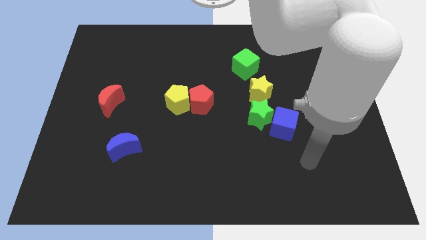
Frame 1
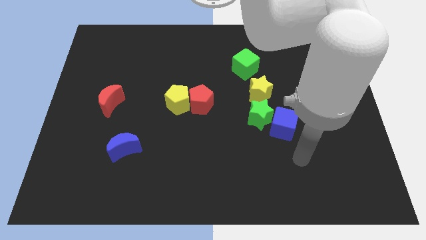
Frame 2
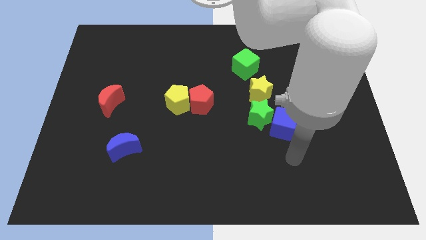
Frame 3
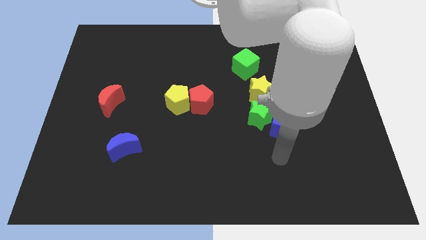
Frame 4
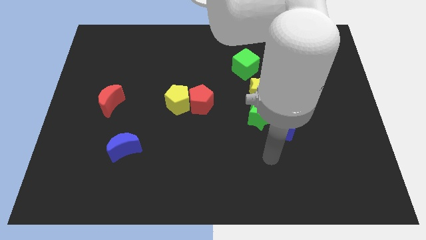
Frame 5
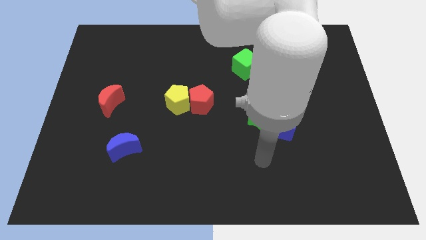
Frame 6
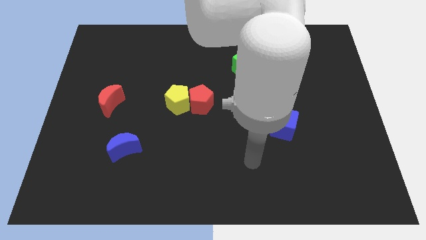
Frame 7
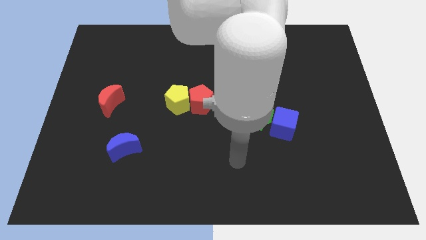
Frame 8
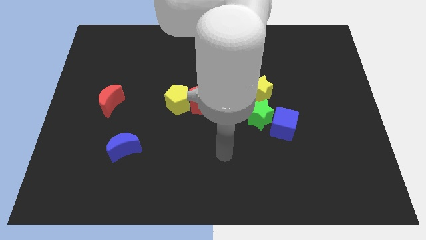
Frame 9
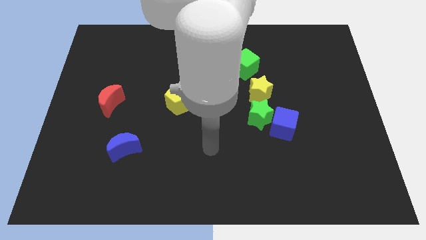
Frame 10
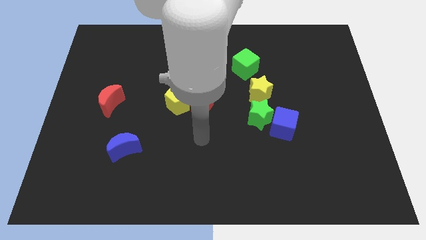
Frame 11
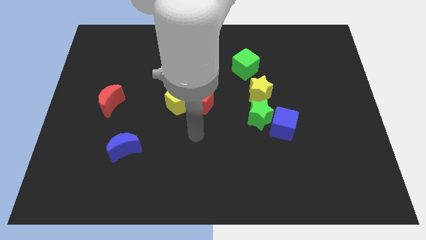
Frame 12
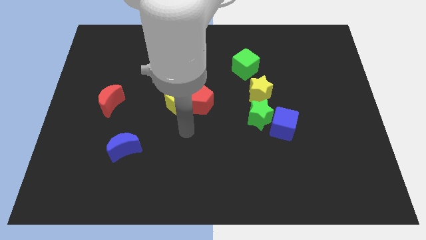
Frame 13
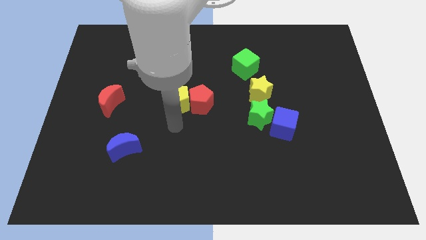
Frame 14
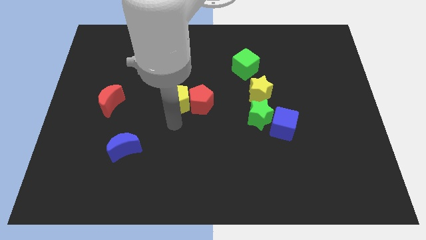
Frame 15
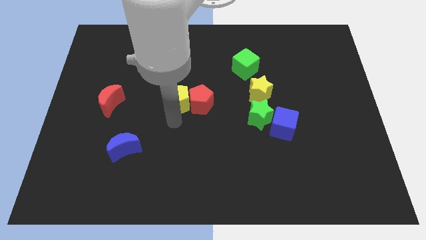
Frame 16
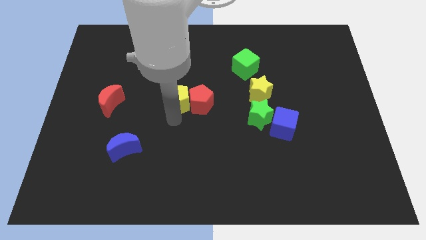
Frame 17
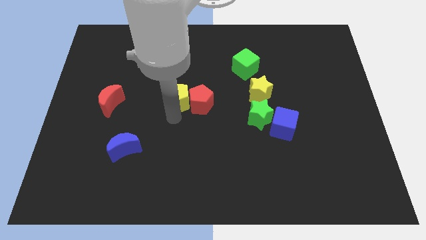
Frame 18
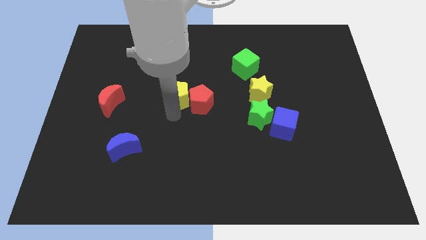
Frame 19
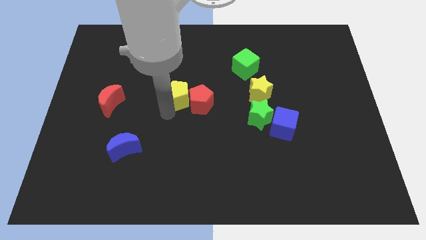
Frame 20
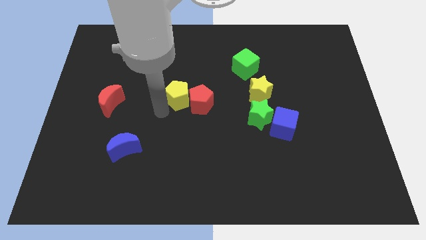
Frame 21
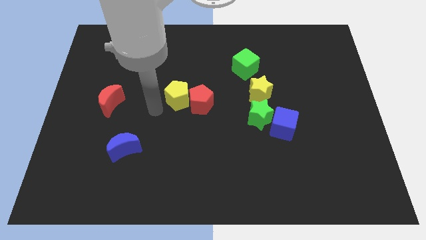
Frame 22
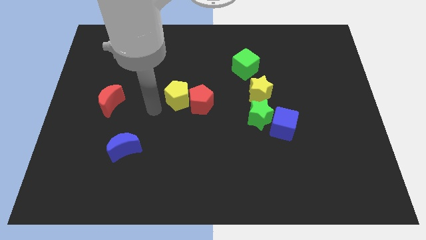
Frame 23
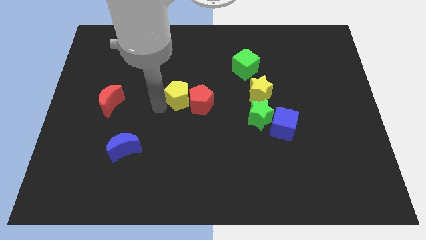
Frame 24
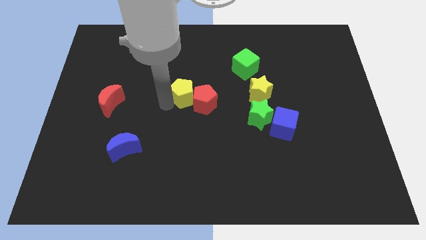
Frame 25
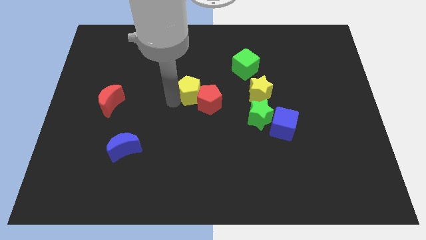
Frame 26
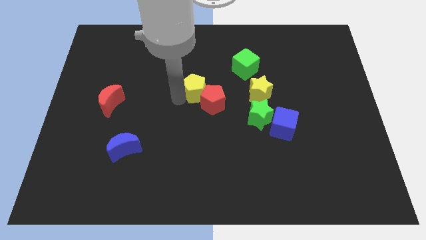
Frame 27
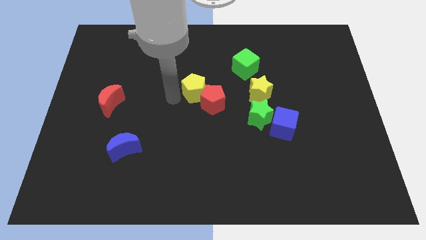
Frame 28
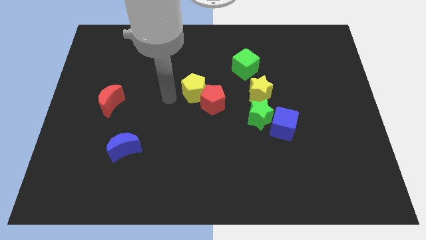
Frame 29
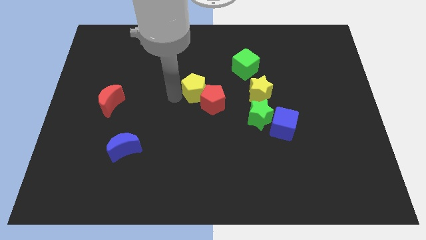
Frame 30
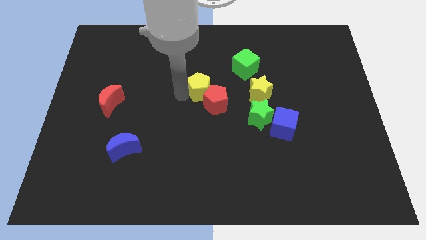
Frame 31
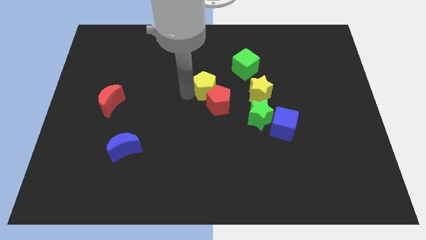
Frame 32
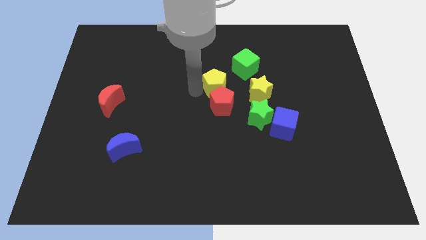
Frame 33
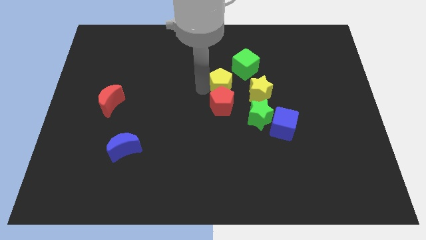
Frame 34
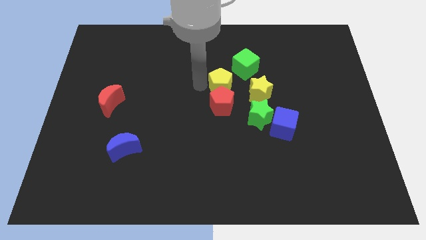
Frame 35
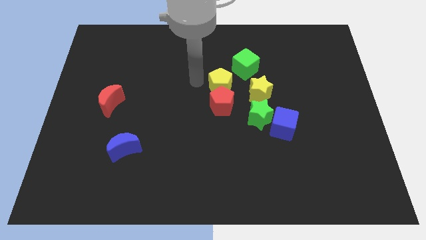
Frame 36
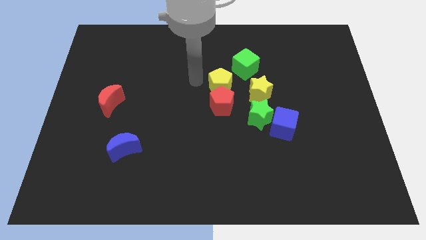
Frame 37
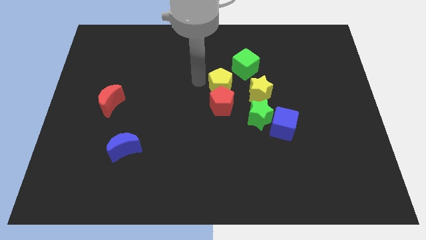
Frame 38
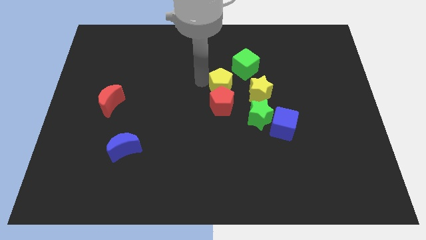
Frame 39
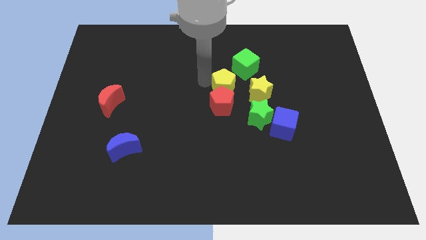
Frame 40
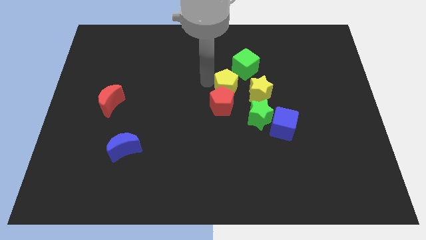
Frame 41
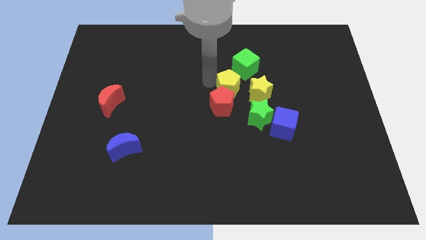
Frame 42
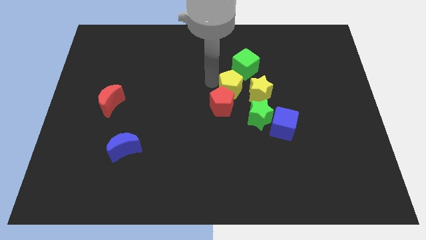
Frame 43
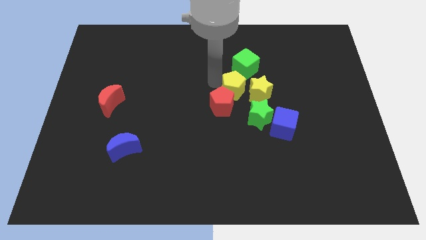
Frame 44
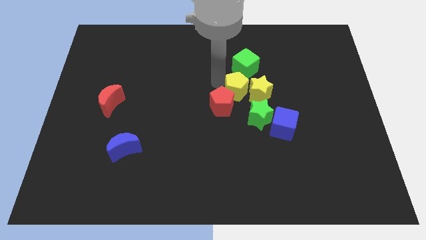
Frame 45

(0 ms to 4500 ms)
push the yellow pentagon to the yellow star

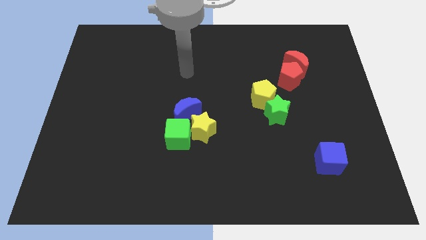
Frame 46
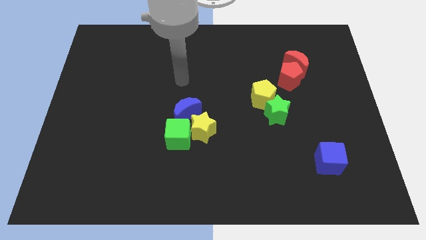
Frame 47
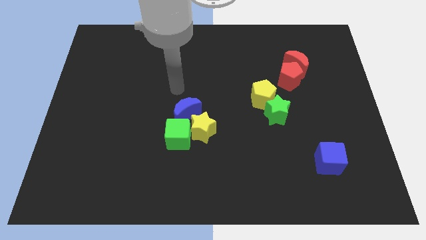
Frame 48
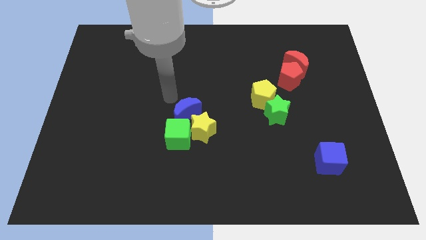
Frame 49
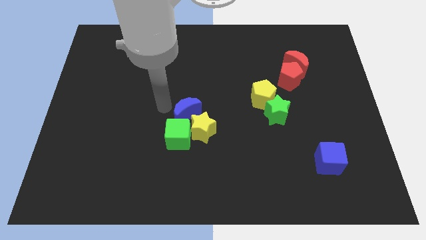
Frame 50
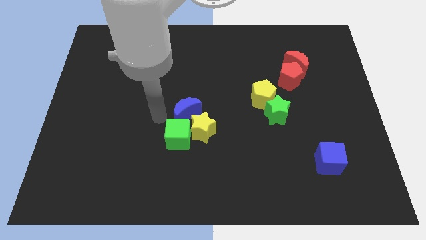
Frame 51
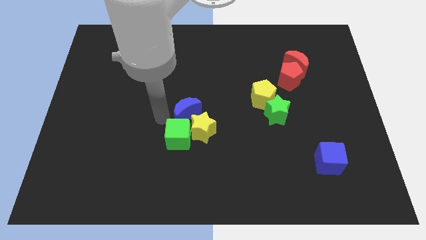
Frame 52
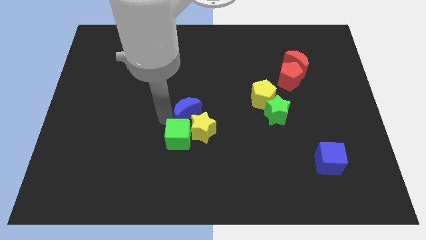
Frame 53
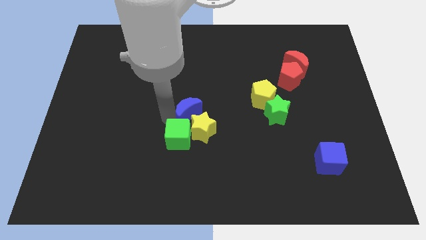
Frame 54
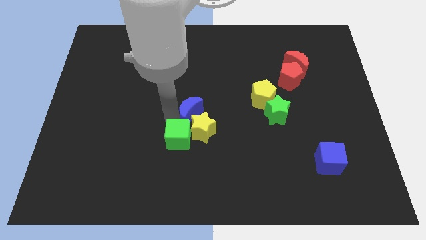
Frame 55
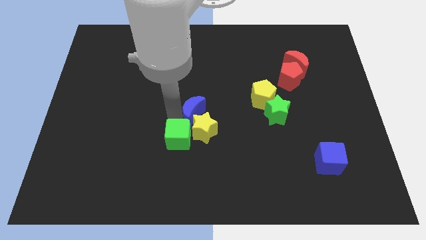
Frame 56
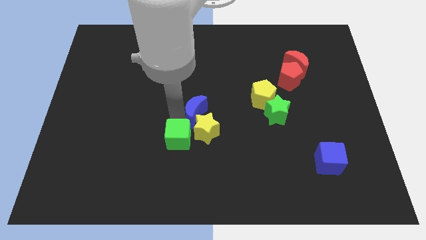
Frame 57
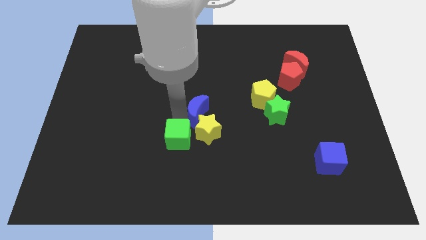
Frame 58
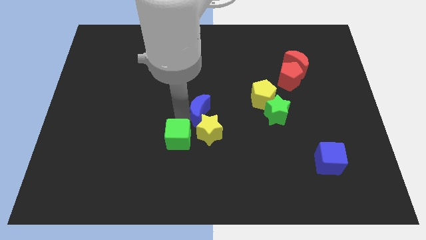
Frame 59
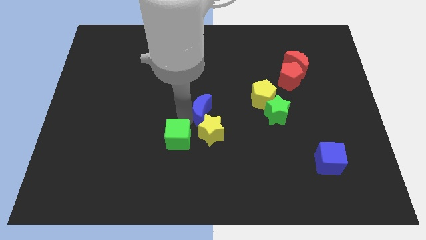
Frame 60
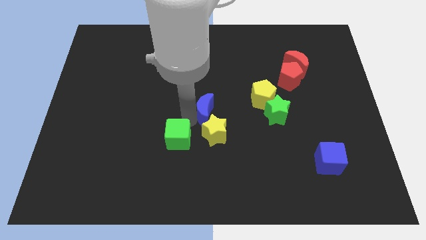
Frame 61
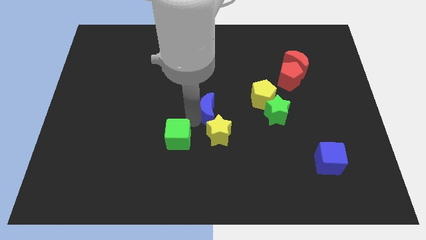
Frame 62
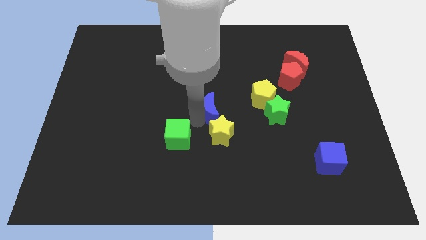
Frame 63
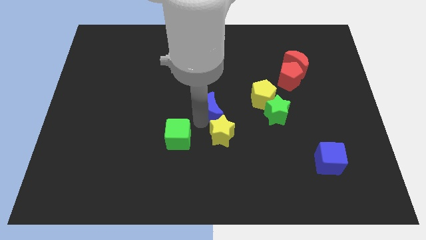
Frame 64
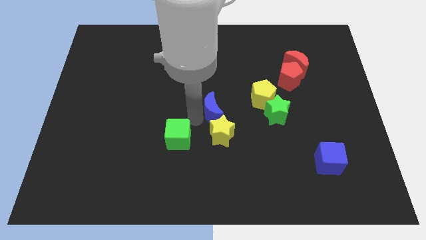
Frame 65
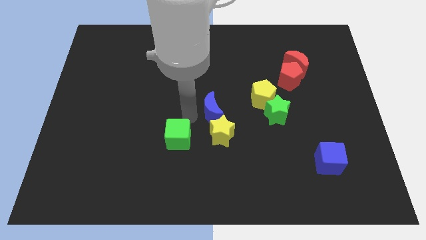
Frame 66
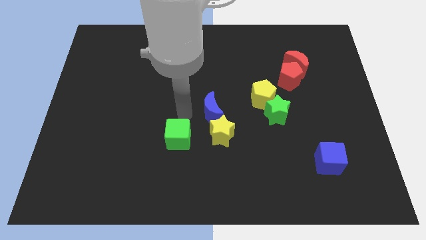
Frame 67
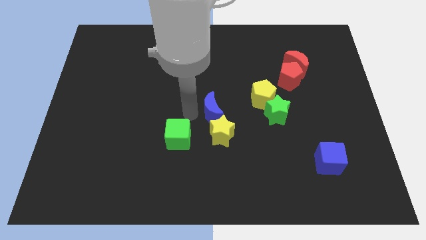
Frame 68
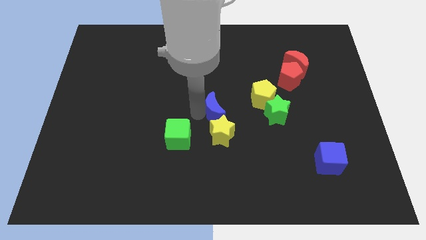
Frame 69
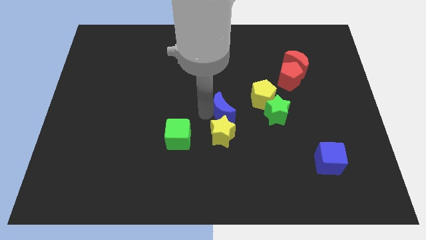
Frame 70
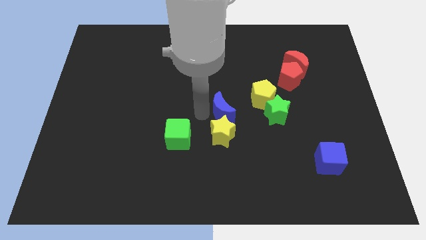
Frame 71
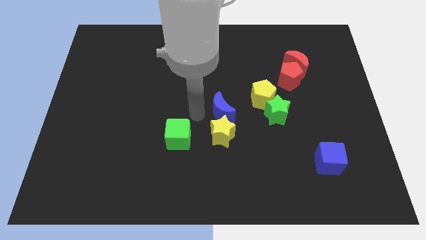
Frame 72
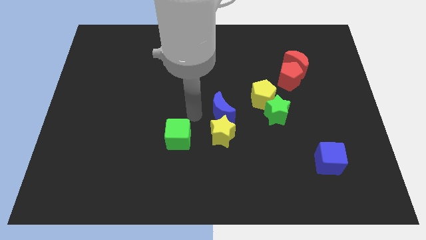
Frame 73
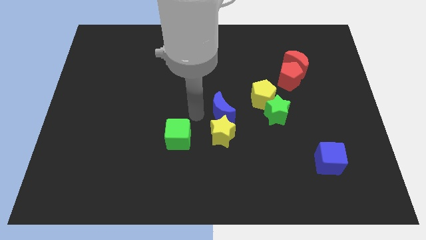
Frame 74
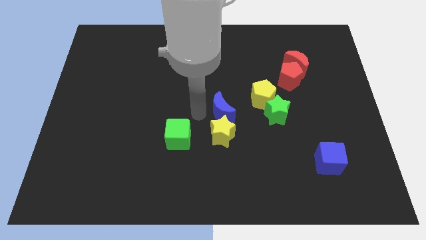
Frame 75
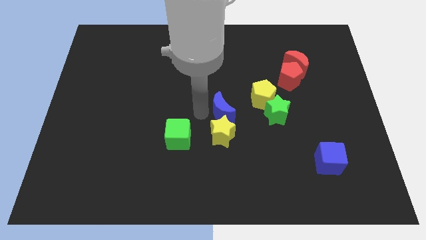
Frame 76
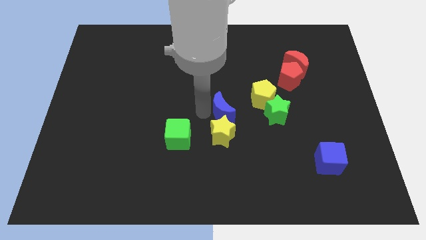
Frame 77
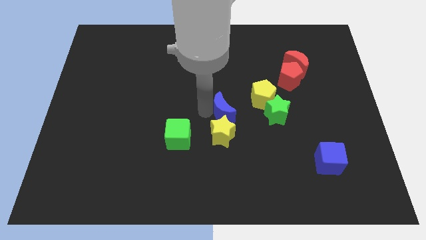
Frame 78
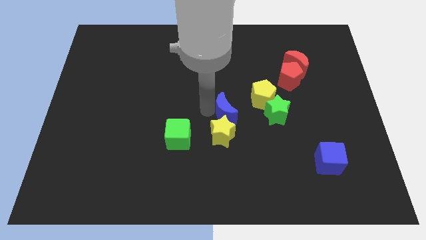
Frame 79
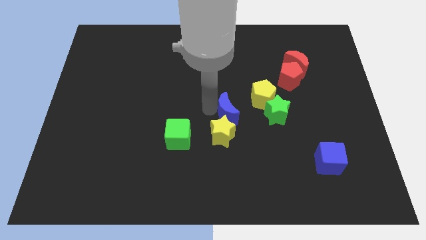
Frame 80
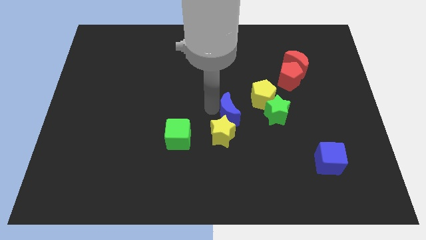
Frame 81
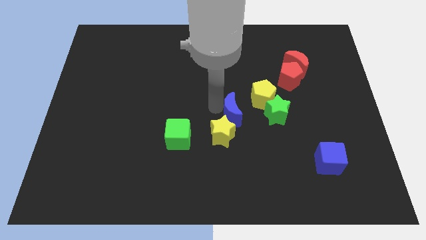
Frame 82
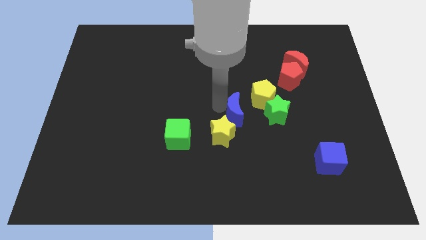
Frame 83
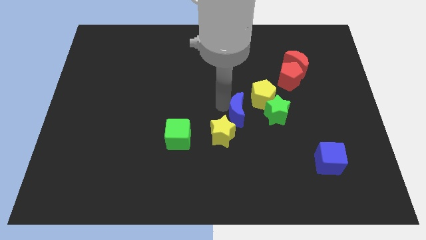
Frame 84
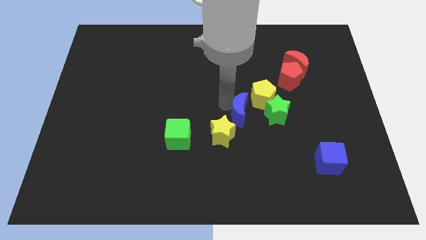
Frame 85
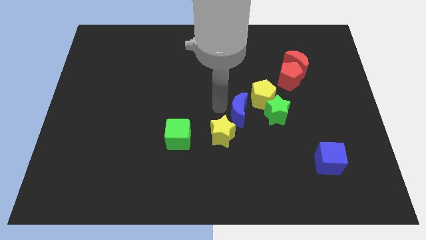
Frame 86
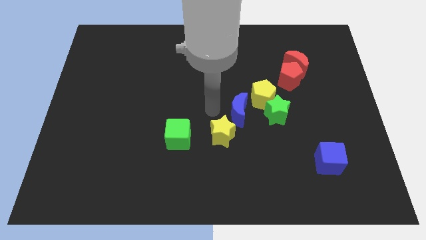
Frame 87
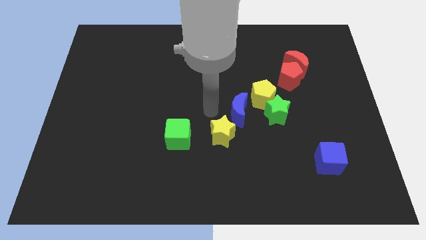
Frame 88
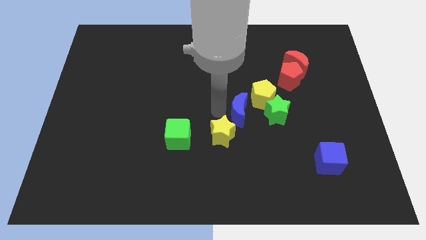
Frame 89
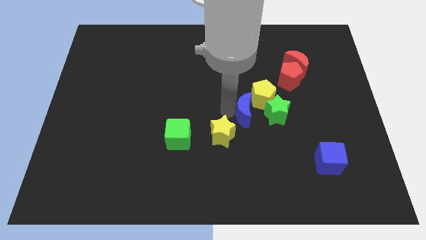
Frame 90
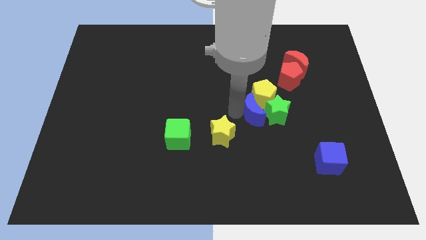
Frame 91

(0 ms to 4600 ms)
push the blue moon to the green star
